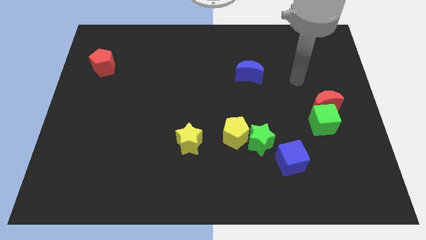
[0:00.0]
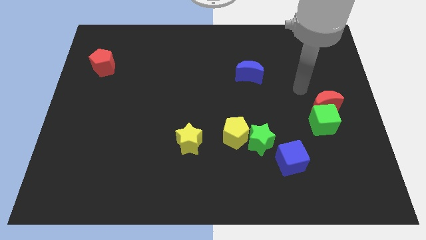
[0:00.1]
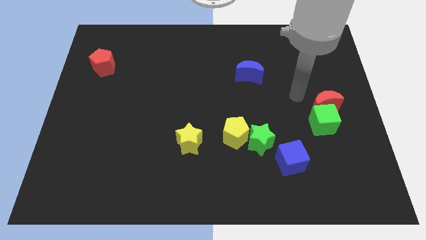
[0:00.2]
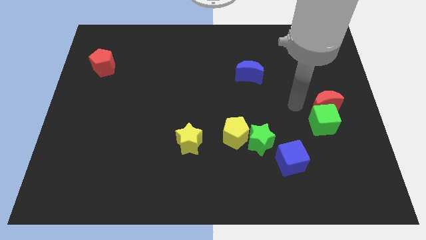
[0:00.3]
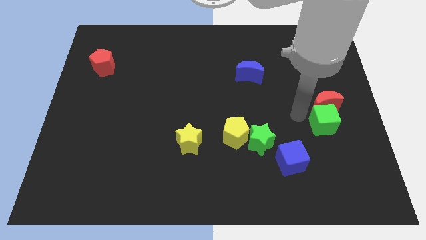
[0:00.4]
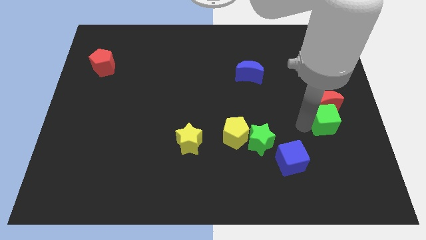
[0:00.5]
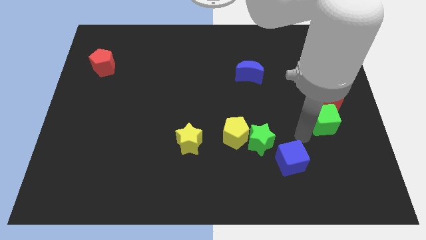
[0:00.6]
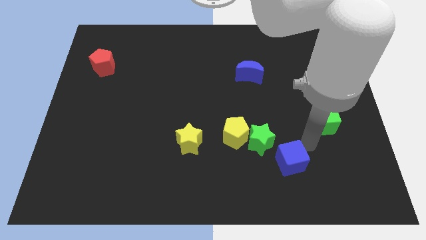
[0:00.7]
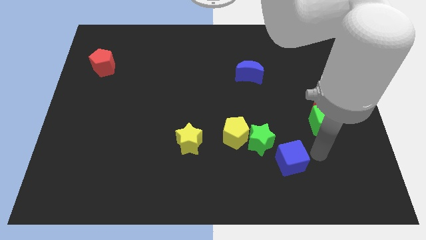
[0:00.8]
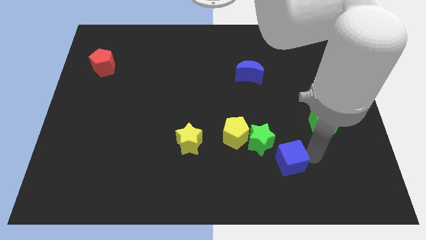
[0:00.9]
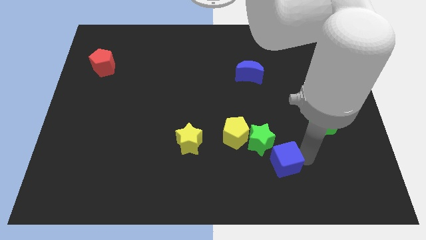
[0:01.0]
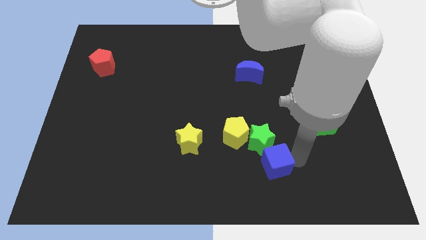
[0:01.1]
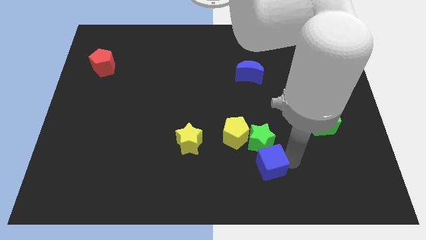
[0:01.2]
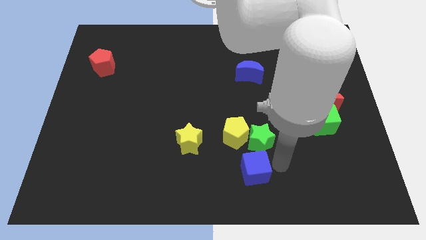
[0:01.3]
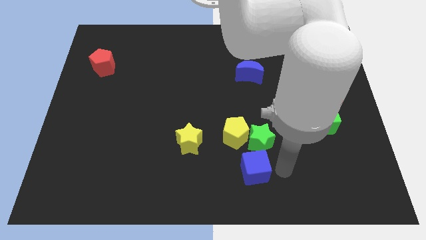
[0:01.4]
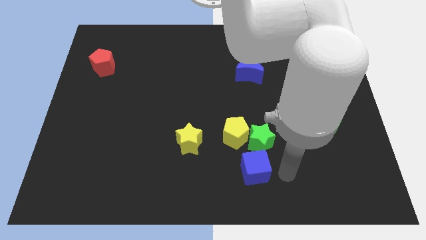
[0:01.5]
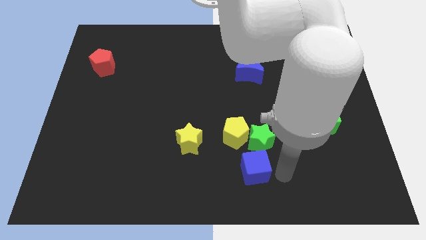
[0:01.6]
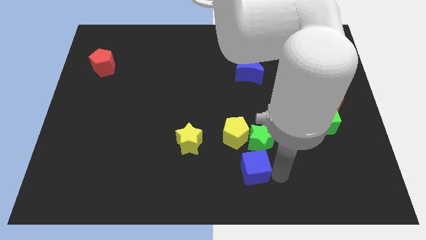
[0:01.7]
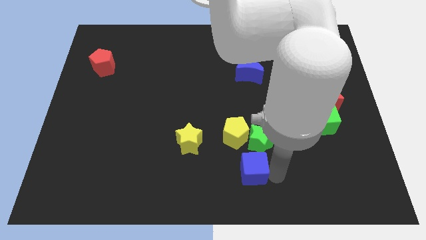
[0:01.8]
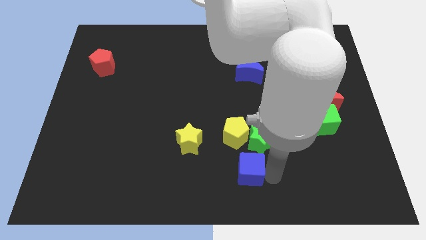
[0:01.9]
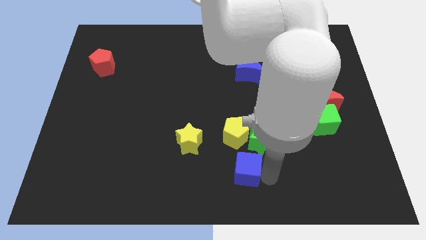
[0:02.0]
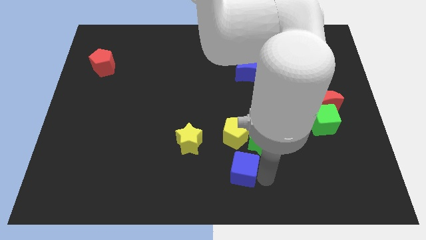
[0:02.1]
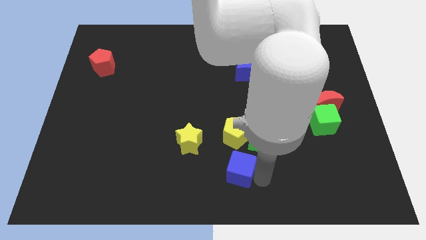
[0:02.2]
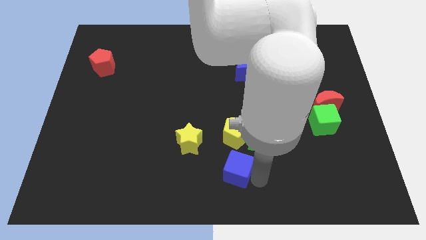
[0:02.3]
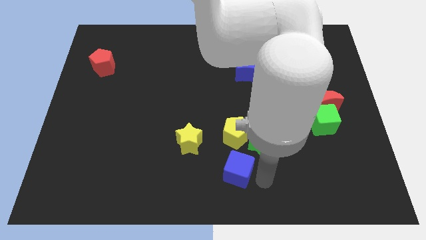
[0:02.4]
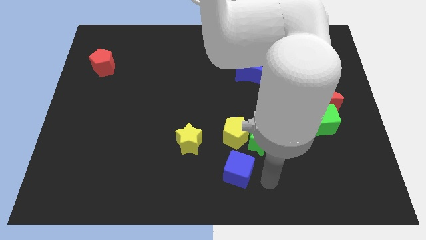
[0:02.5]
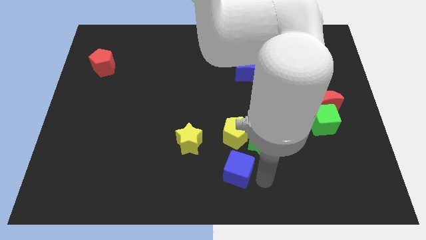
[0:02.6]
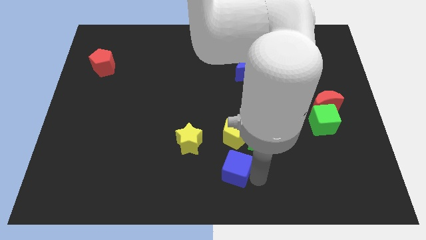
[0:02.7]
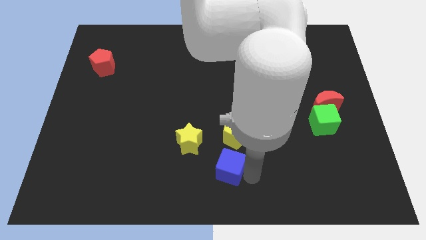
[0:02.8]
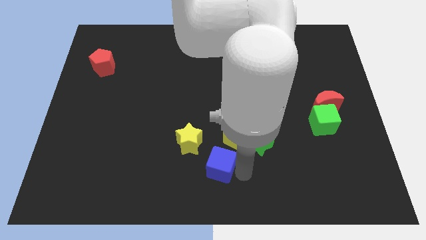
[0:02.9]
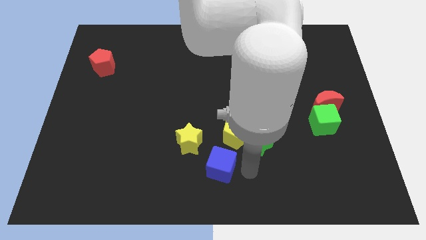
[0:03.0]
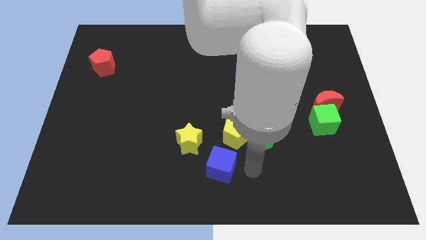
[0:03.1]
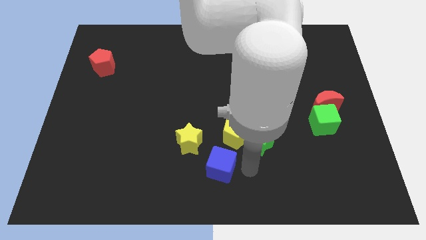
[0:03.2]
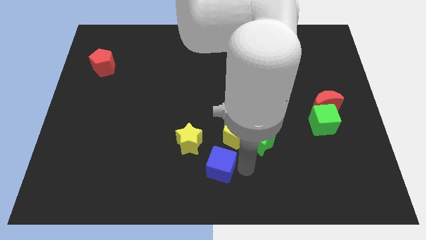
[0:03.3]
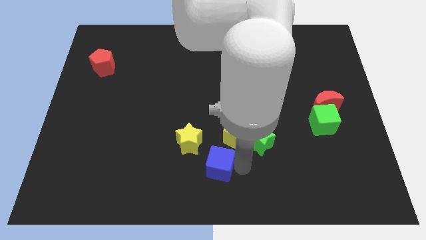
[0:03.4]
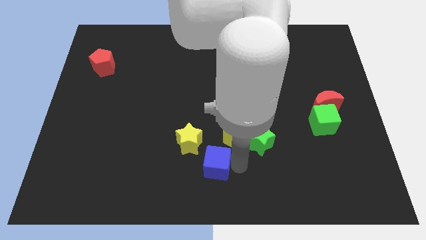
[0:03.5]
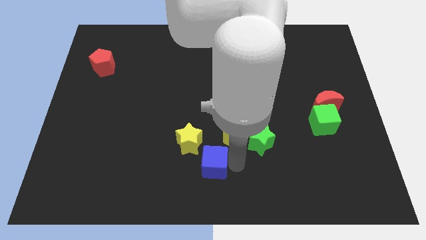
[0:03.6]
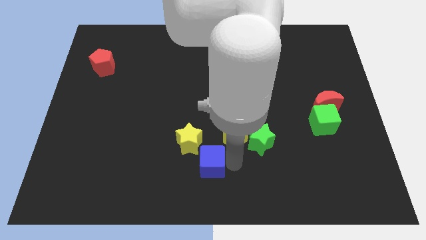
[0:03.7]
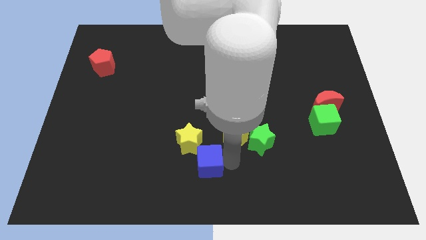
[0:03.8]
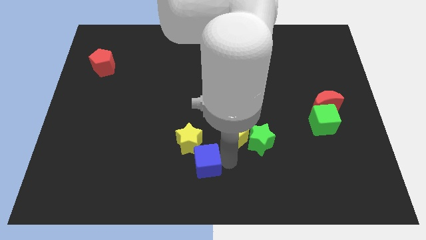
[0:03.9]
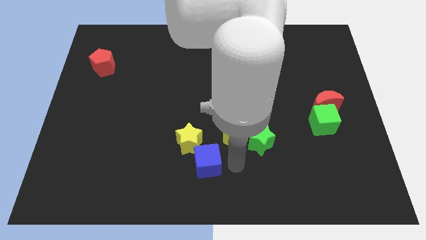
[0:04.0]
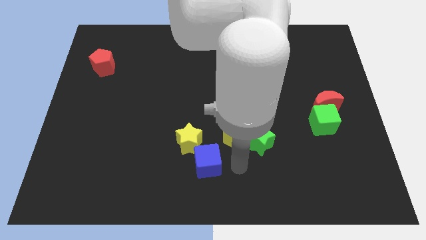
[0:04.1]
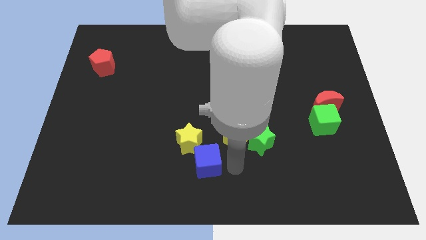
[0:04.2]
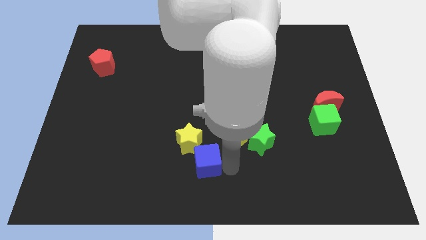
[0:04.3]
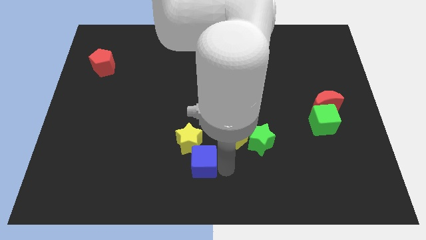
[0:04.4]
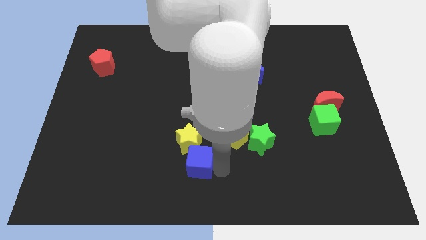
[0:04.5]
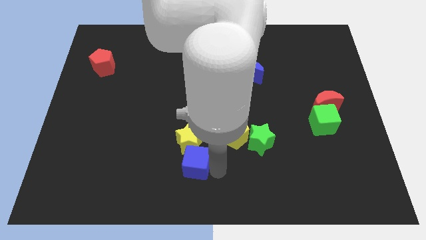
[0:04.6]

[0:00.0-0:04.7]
move the blue cube to the left

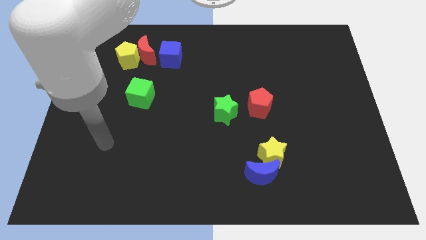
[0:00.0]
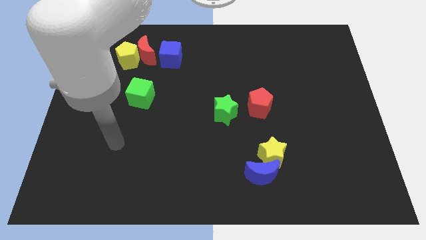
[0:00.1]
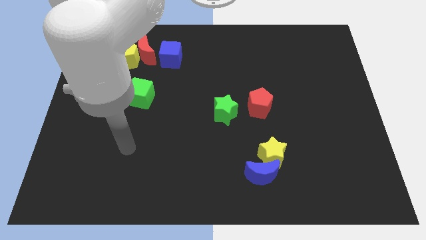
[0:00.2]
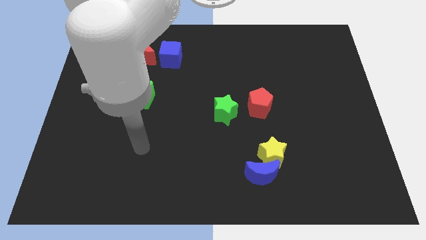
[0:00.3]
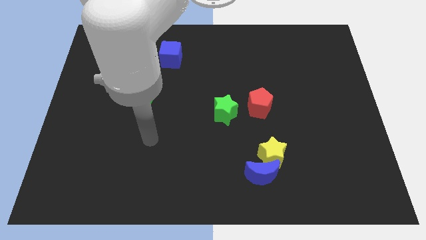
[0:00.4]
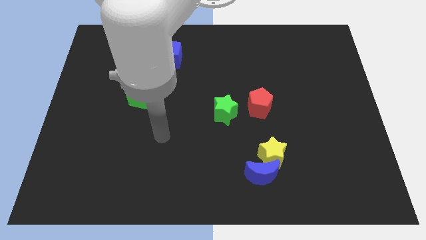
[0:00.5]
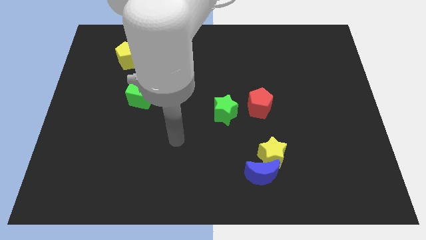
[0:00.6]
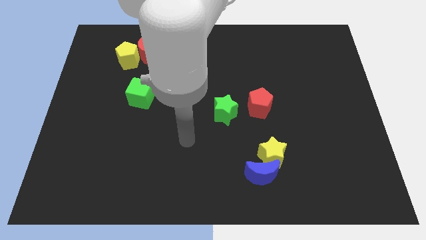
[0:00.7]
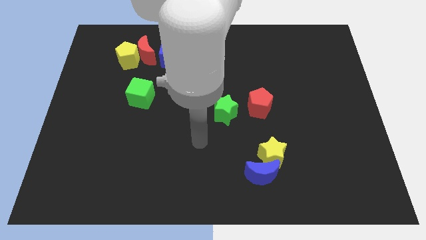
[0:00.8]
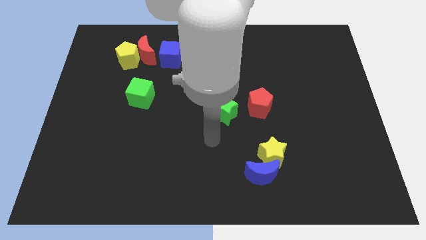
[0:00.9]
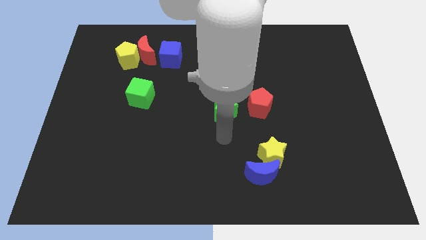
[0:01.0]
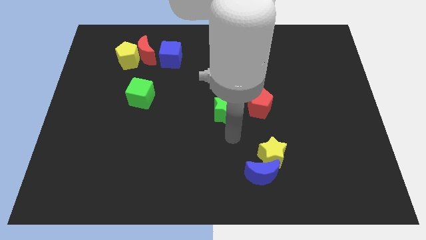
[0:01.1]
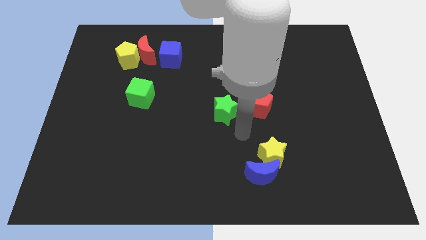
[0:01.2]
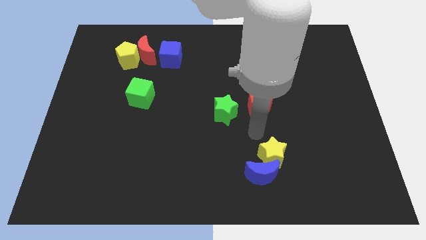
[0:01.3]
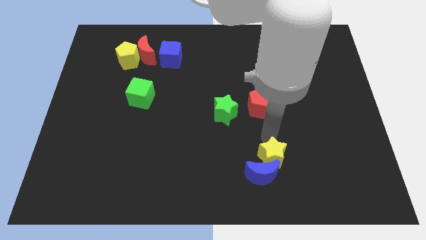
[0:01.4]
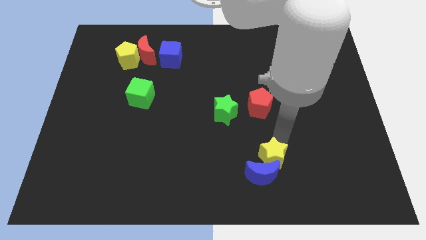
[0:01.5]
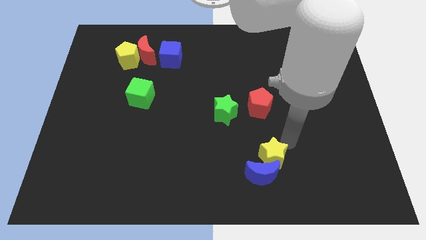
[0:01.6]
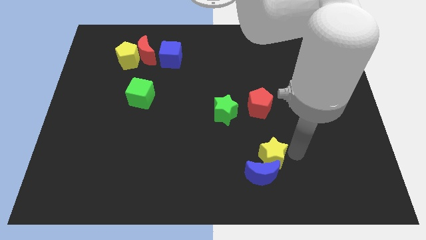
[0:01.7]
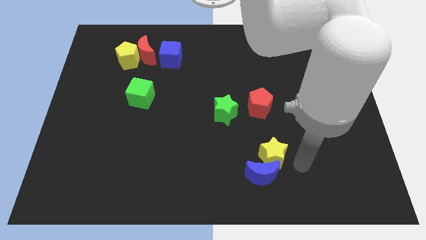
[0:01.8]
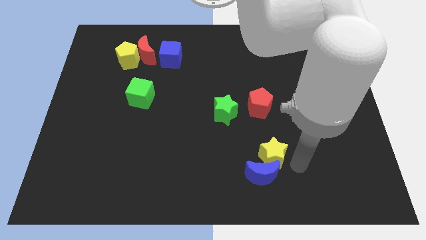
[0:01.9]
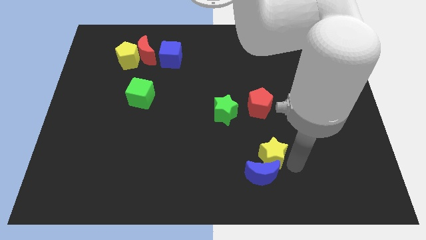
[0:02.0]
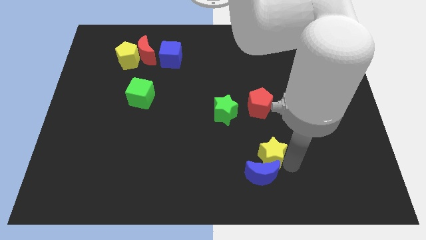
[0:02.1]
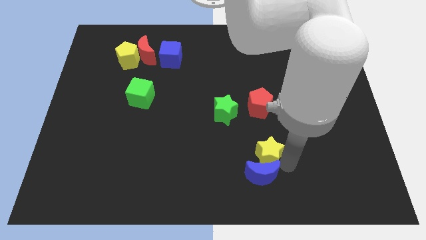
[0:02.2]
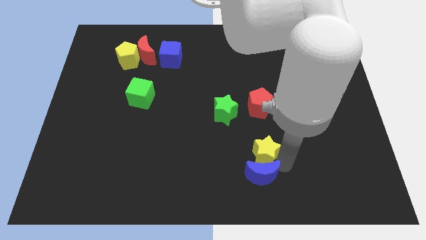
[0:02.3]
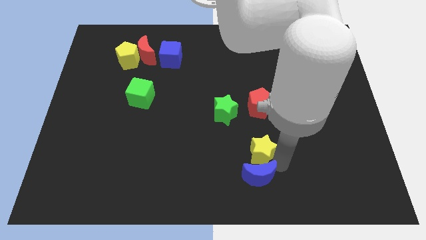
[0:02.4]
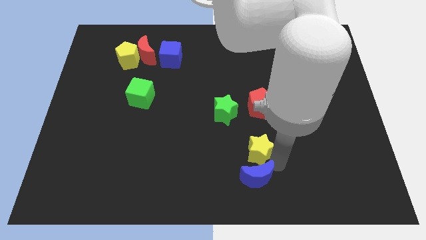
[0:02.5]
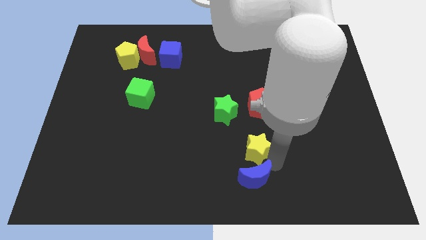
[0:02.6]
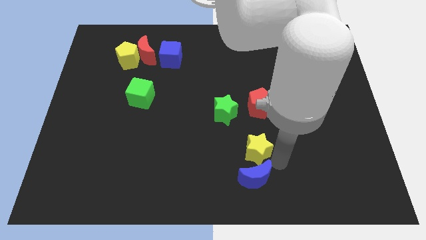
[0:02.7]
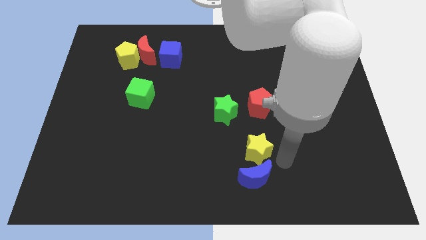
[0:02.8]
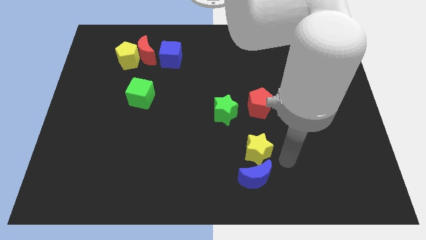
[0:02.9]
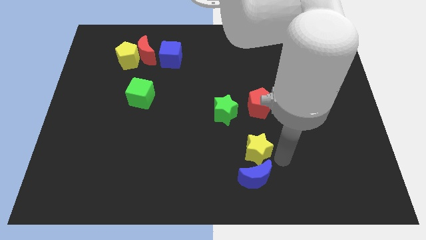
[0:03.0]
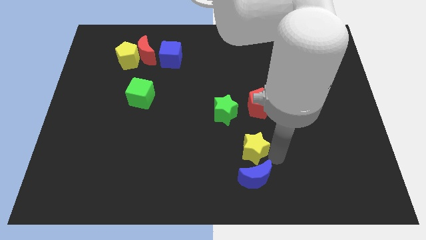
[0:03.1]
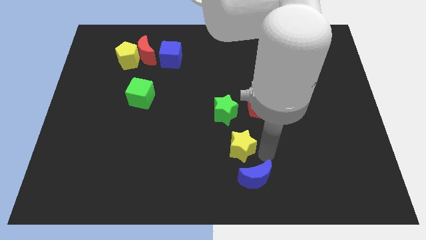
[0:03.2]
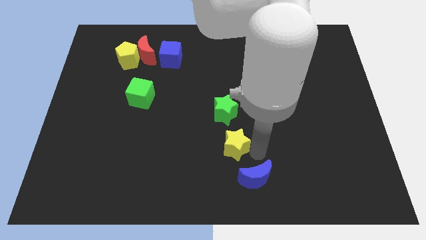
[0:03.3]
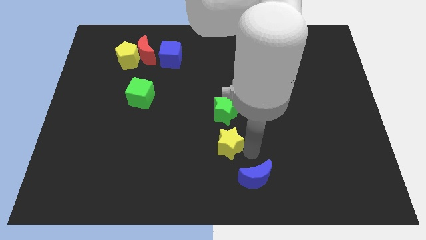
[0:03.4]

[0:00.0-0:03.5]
slide the yellow star up and then to the left a bit
